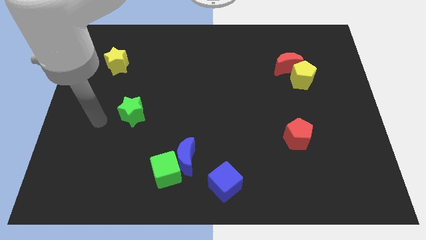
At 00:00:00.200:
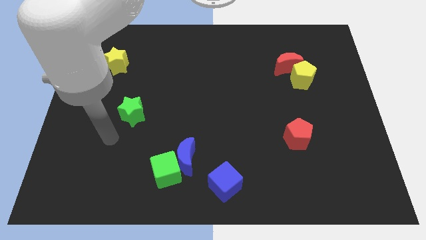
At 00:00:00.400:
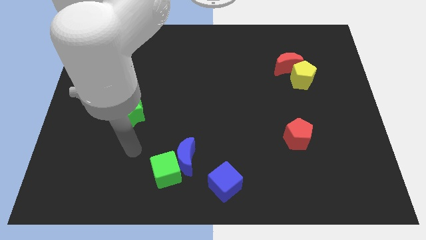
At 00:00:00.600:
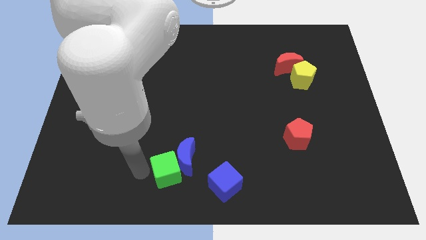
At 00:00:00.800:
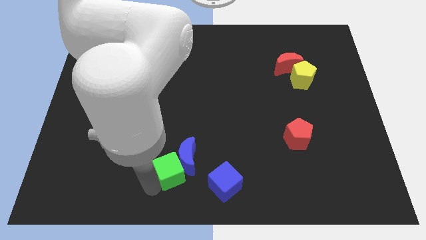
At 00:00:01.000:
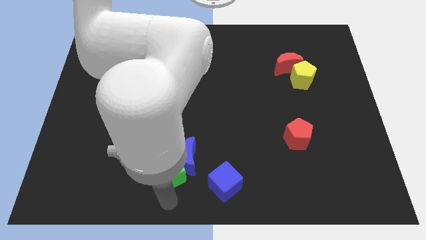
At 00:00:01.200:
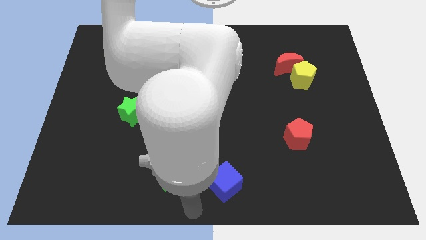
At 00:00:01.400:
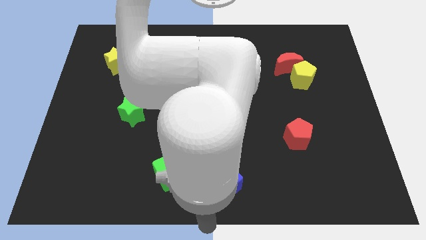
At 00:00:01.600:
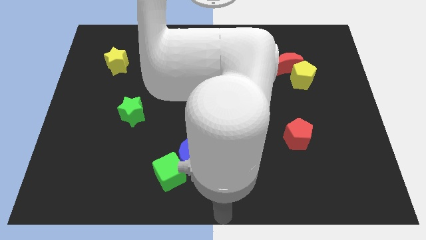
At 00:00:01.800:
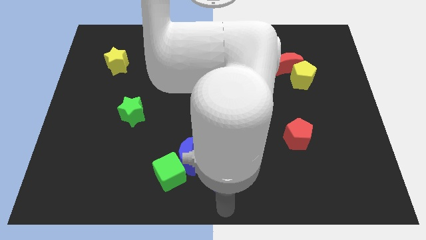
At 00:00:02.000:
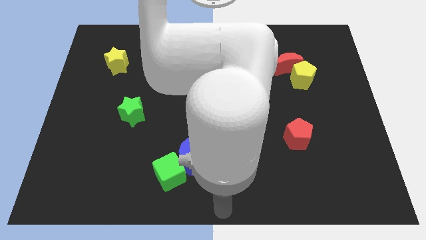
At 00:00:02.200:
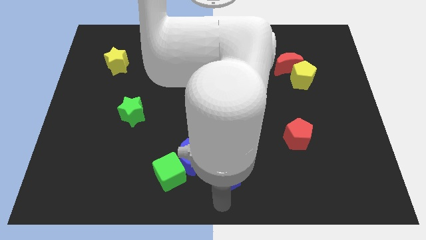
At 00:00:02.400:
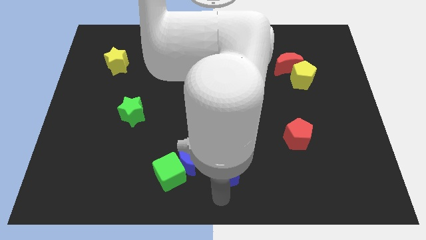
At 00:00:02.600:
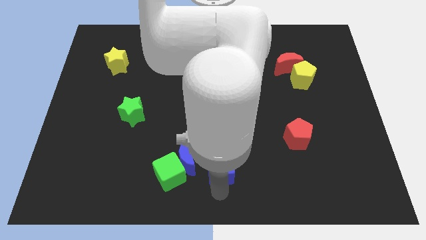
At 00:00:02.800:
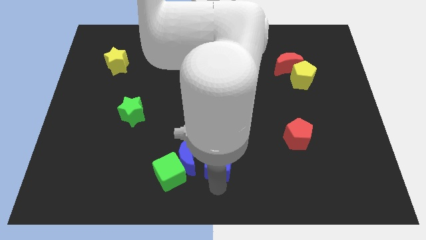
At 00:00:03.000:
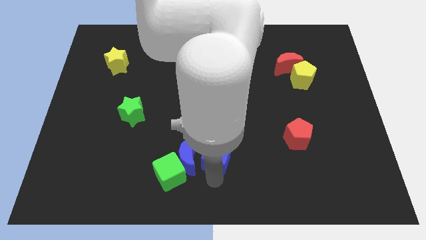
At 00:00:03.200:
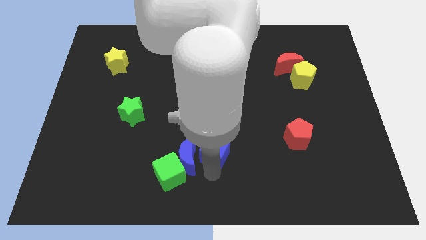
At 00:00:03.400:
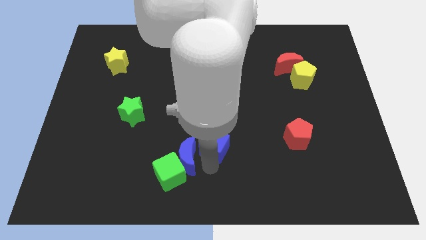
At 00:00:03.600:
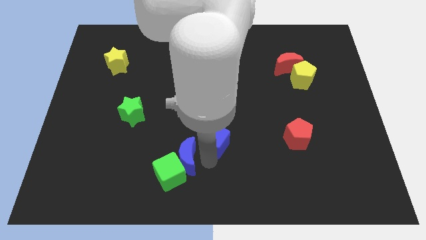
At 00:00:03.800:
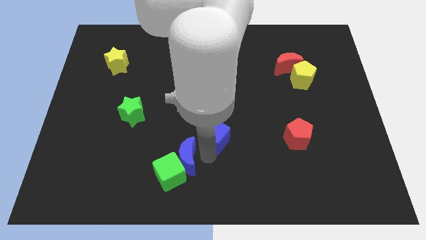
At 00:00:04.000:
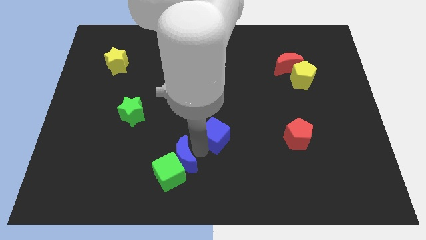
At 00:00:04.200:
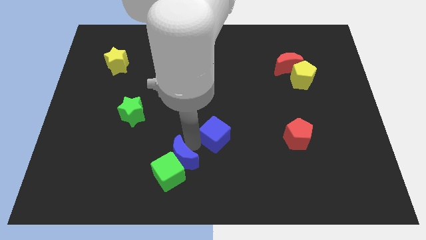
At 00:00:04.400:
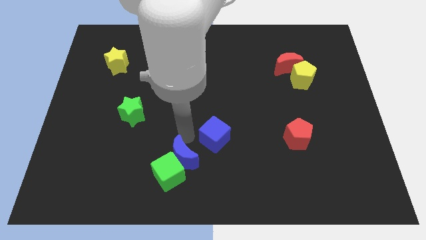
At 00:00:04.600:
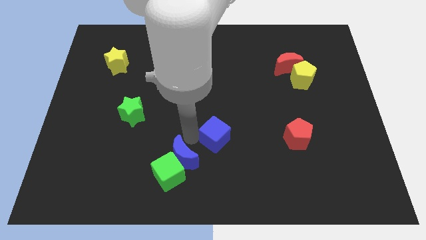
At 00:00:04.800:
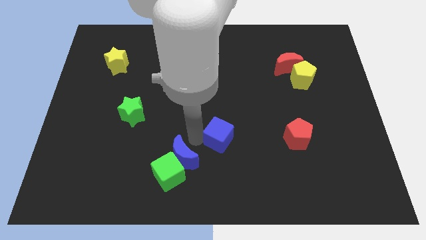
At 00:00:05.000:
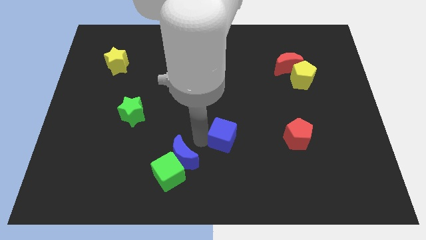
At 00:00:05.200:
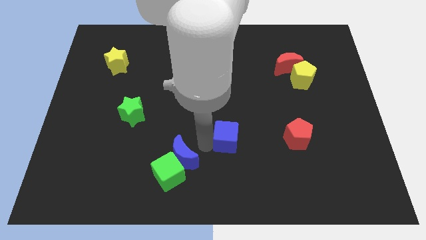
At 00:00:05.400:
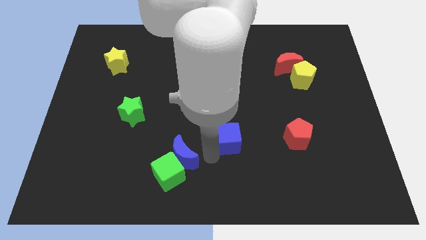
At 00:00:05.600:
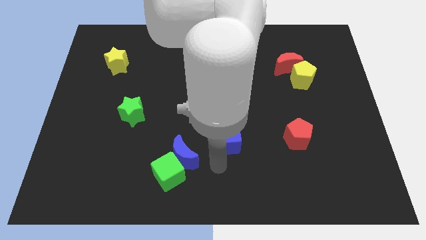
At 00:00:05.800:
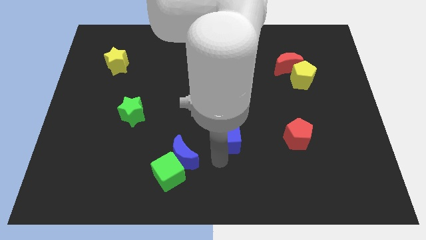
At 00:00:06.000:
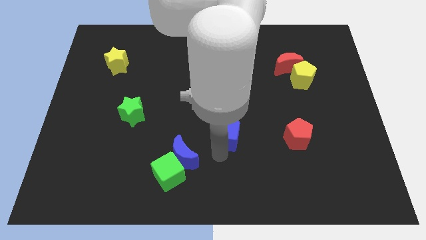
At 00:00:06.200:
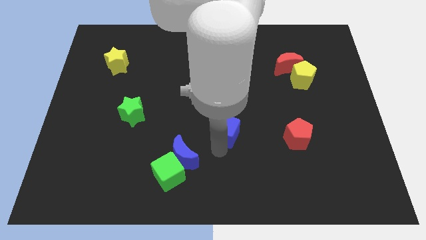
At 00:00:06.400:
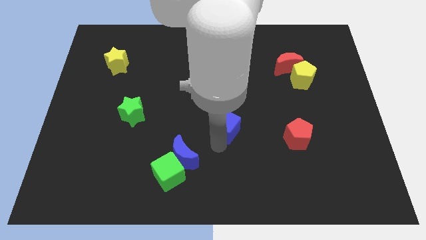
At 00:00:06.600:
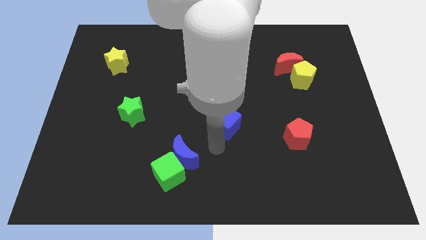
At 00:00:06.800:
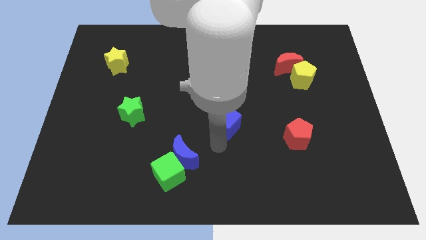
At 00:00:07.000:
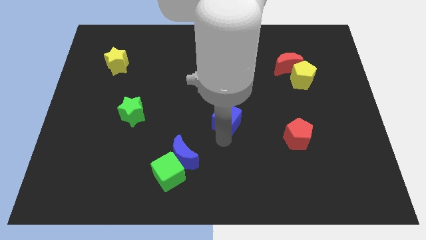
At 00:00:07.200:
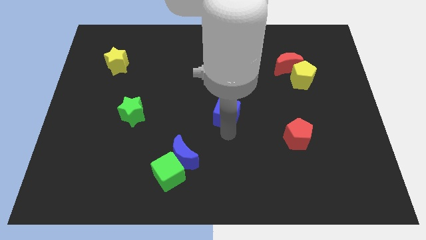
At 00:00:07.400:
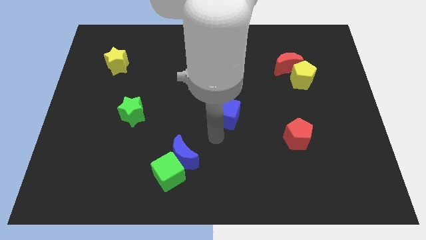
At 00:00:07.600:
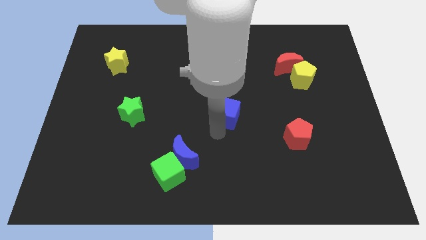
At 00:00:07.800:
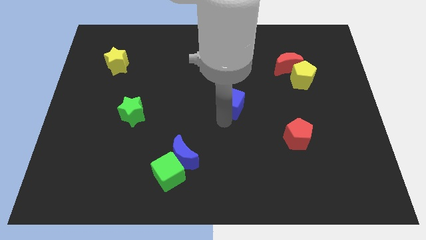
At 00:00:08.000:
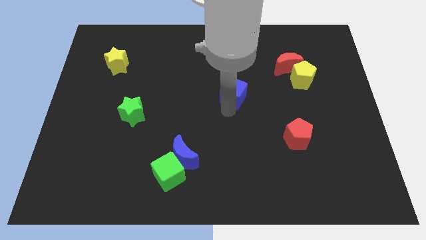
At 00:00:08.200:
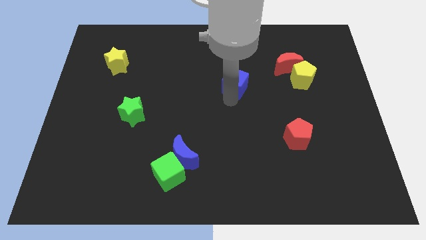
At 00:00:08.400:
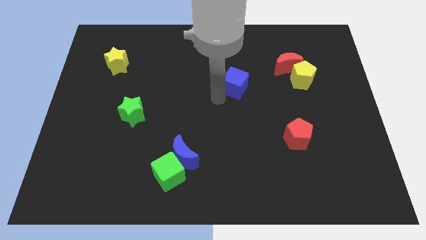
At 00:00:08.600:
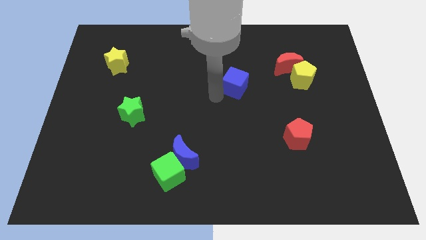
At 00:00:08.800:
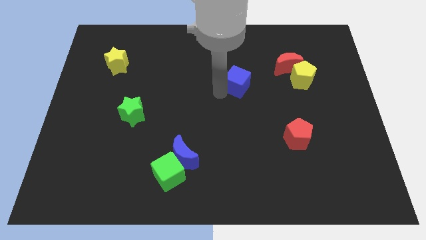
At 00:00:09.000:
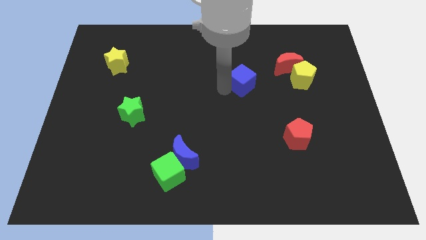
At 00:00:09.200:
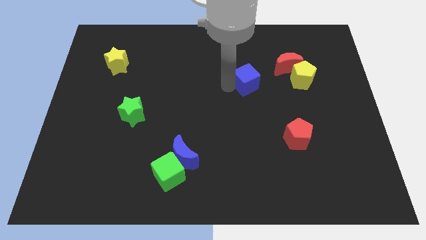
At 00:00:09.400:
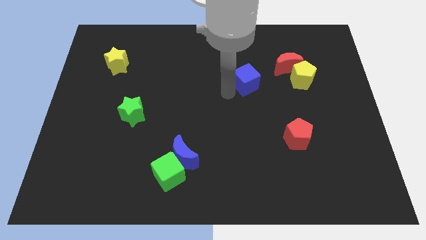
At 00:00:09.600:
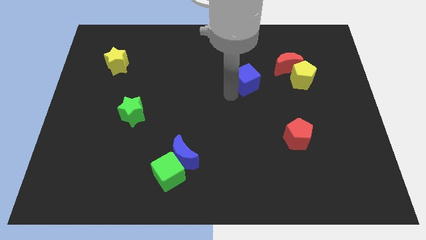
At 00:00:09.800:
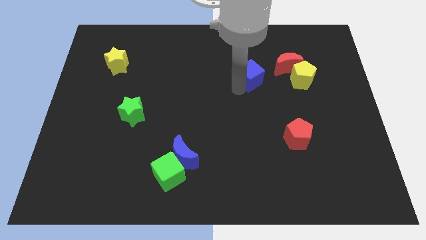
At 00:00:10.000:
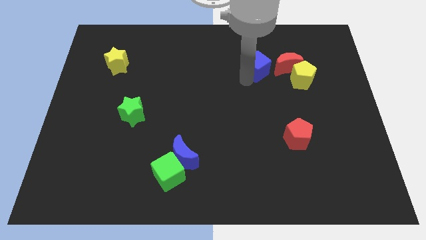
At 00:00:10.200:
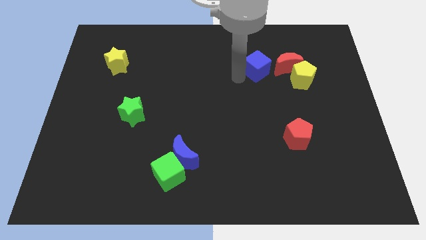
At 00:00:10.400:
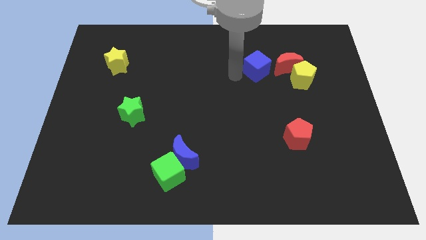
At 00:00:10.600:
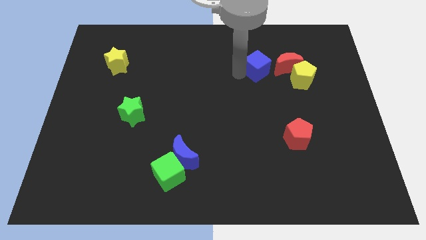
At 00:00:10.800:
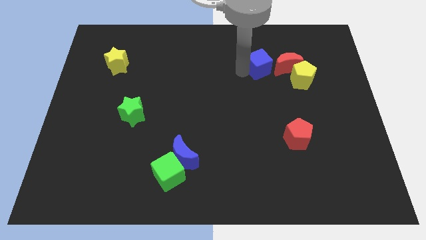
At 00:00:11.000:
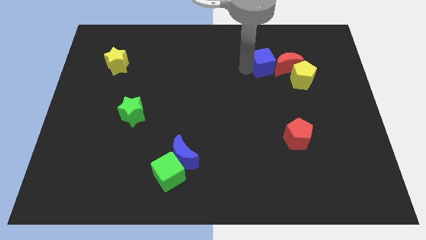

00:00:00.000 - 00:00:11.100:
push the blue cube towards the red moon

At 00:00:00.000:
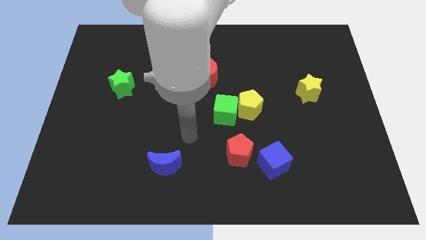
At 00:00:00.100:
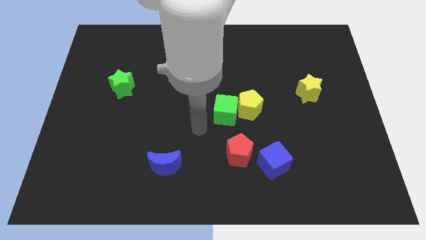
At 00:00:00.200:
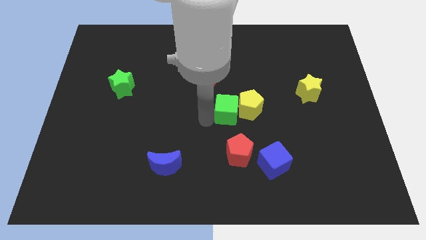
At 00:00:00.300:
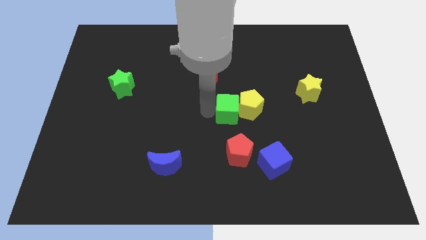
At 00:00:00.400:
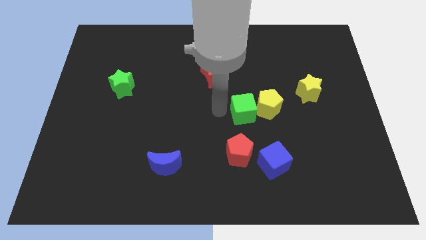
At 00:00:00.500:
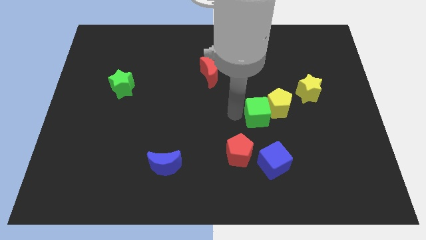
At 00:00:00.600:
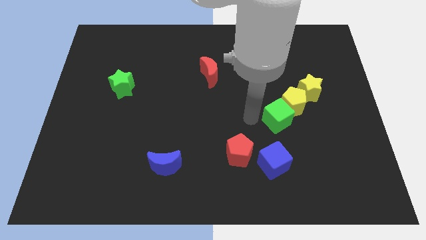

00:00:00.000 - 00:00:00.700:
move the yellow pentagon close to the yellow star
